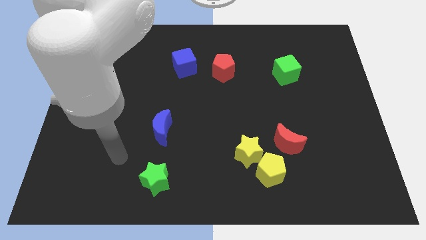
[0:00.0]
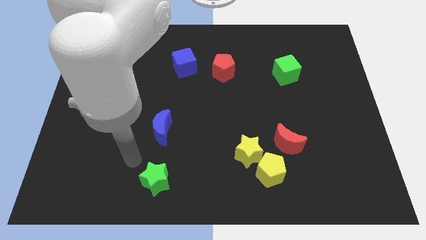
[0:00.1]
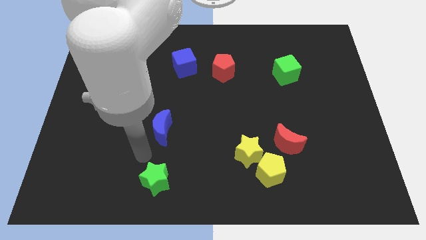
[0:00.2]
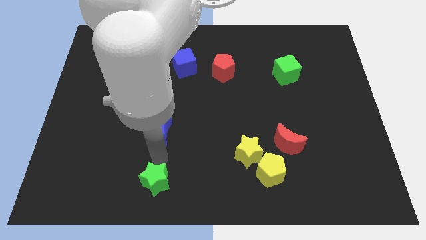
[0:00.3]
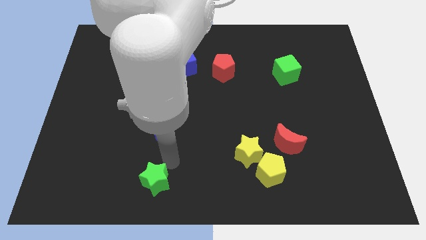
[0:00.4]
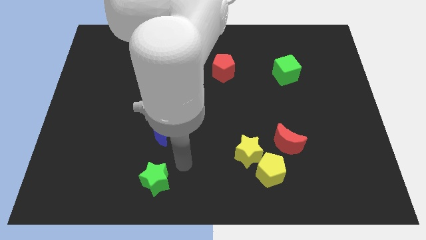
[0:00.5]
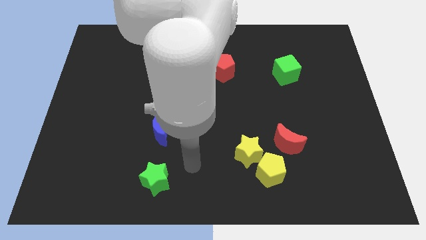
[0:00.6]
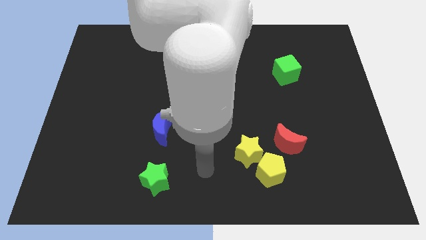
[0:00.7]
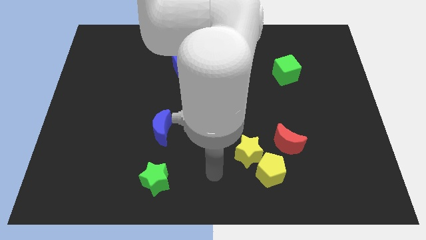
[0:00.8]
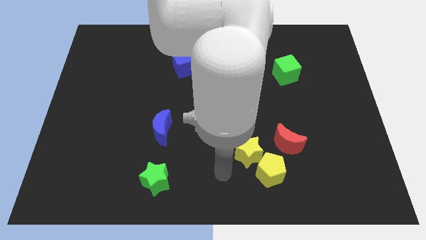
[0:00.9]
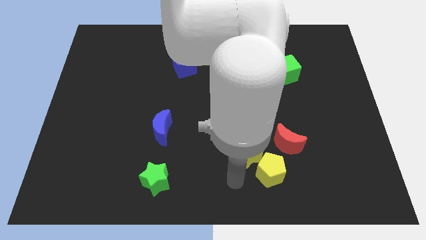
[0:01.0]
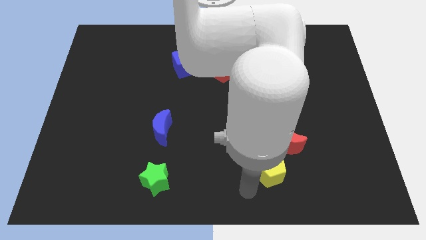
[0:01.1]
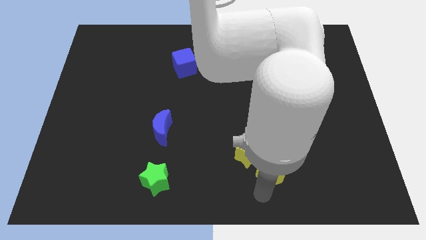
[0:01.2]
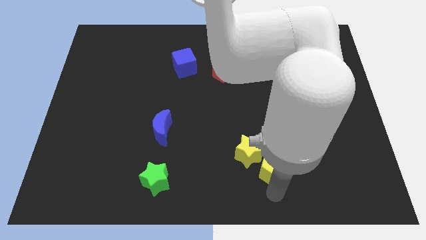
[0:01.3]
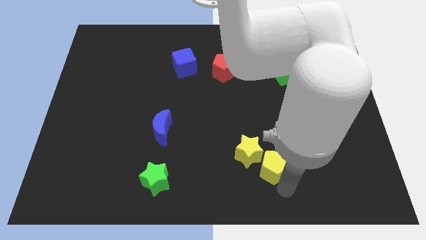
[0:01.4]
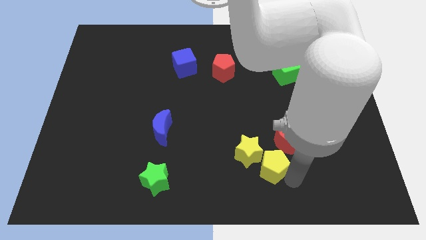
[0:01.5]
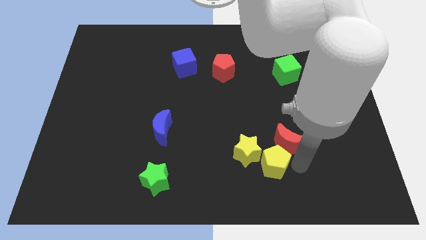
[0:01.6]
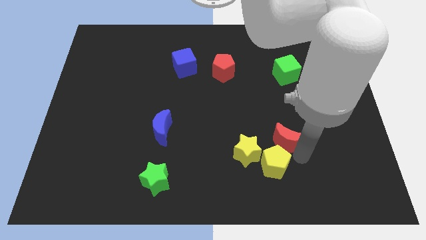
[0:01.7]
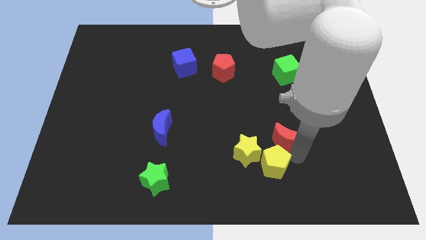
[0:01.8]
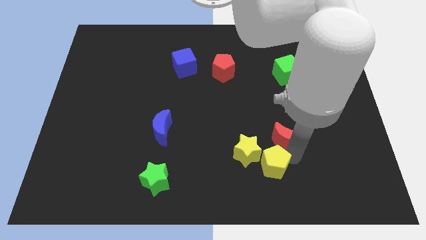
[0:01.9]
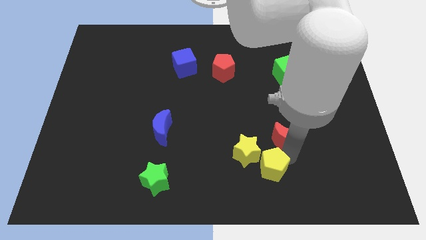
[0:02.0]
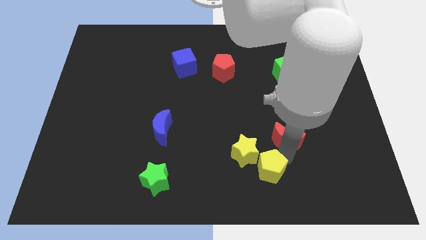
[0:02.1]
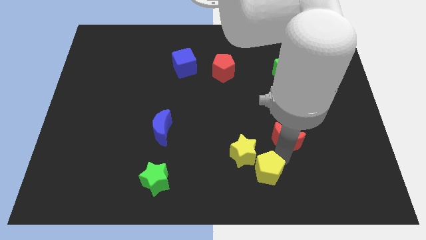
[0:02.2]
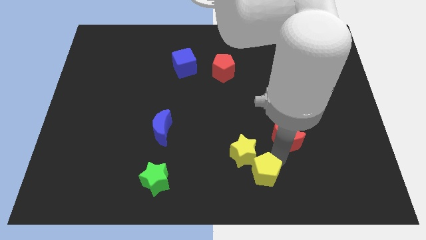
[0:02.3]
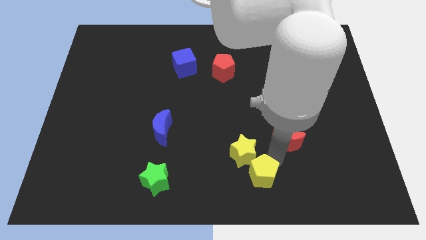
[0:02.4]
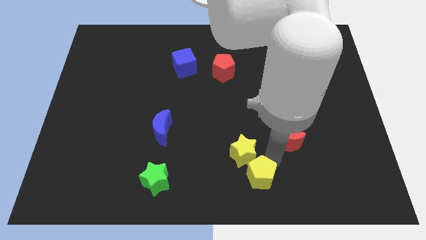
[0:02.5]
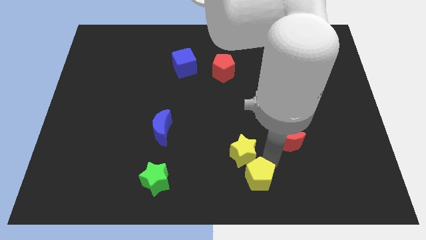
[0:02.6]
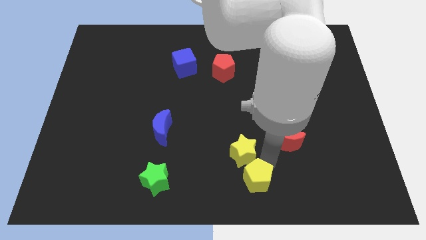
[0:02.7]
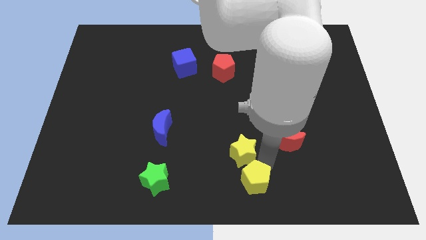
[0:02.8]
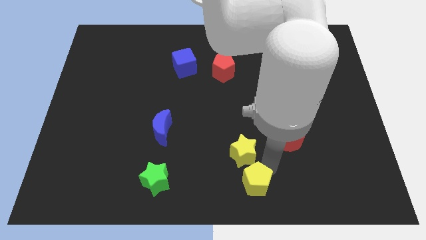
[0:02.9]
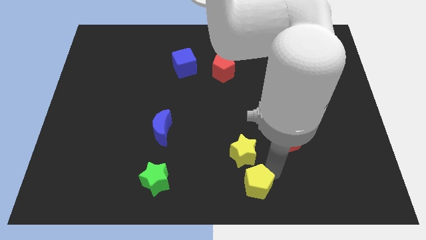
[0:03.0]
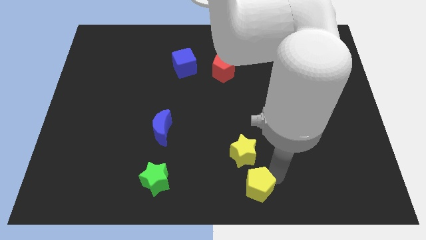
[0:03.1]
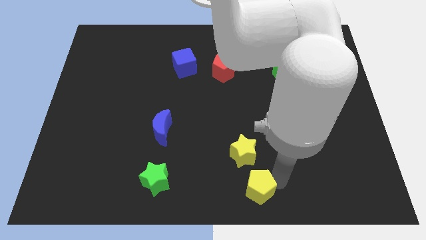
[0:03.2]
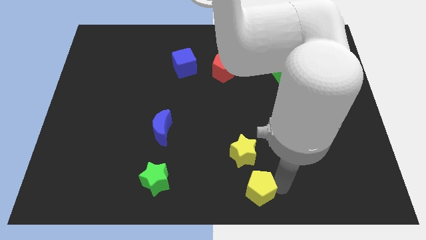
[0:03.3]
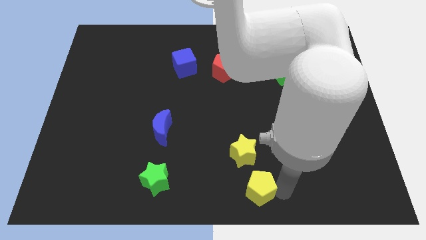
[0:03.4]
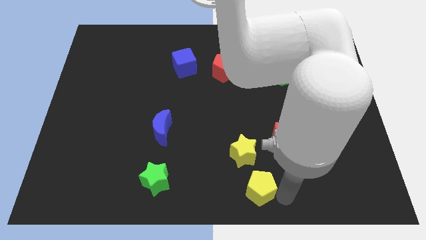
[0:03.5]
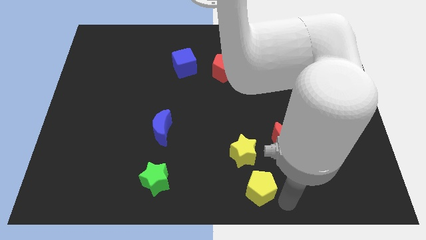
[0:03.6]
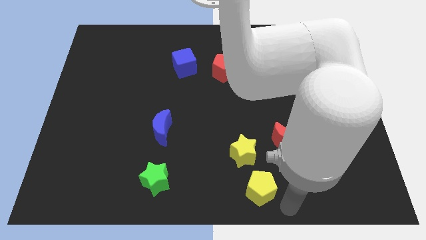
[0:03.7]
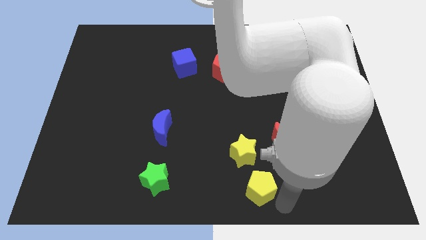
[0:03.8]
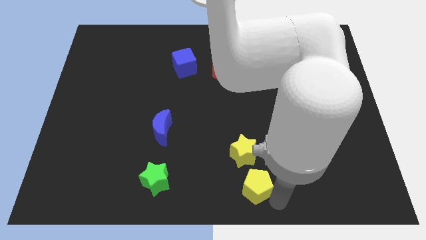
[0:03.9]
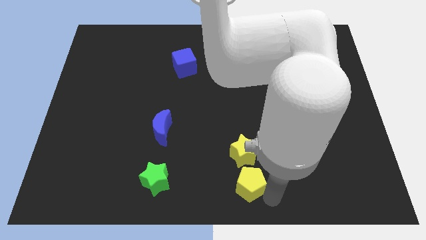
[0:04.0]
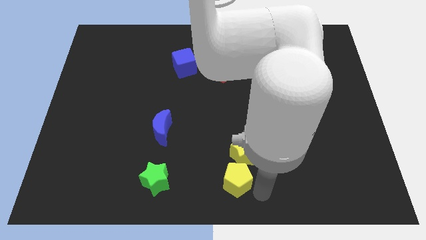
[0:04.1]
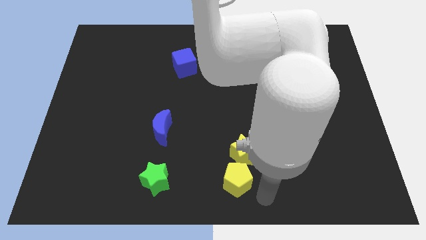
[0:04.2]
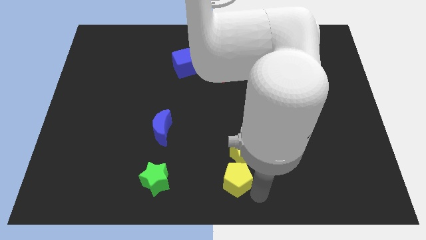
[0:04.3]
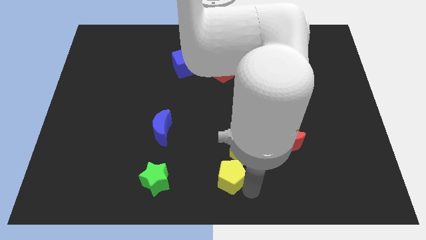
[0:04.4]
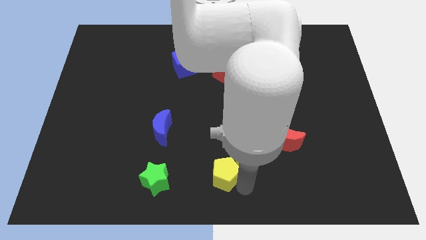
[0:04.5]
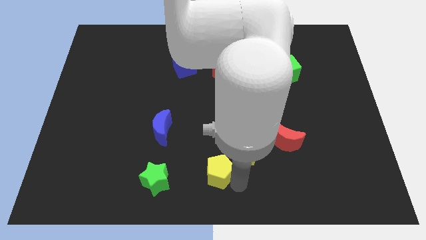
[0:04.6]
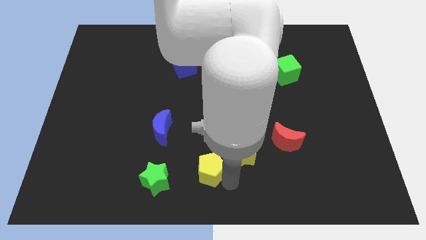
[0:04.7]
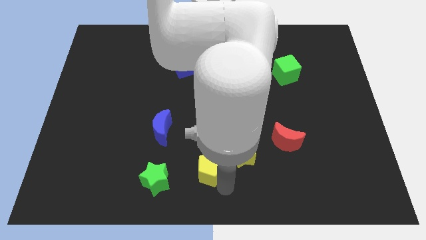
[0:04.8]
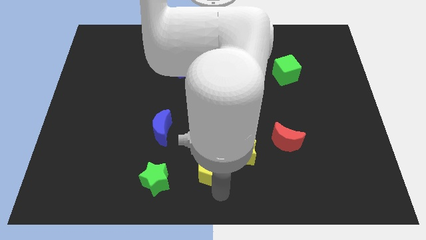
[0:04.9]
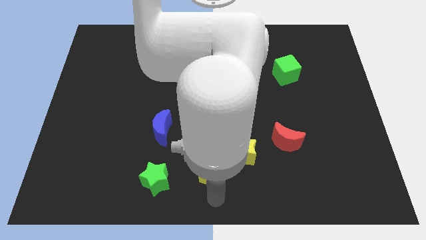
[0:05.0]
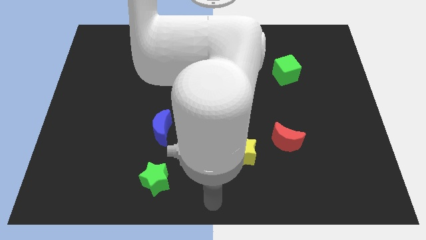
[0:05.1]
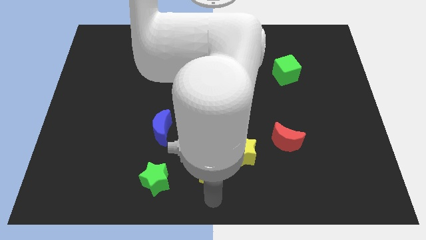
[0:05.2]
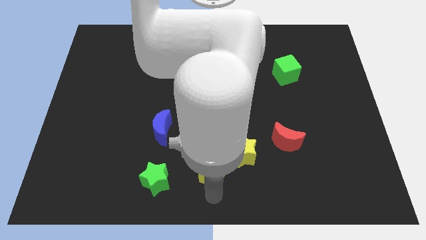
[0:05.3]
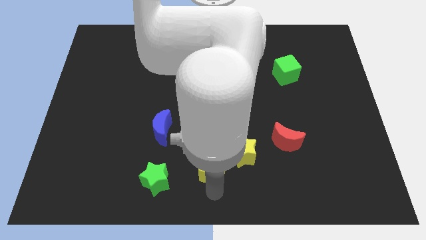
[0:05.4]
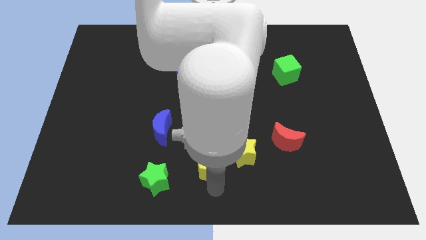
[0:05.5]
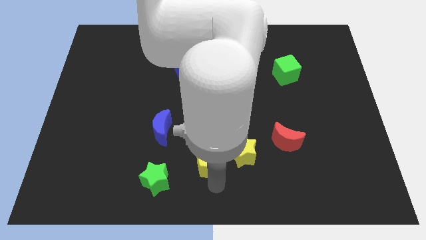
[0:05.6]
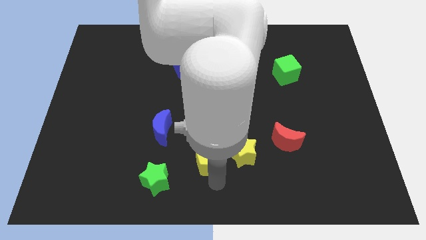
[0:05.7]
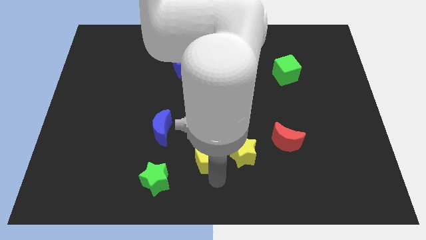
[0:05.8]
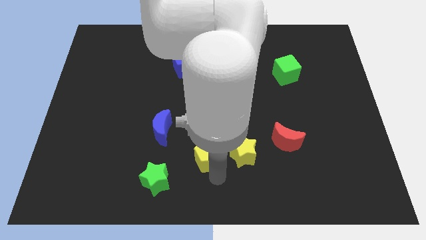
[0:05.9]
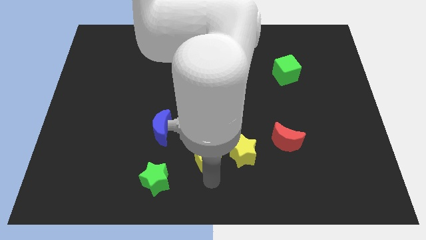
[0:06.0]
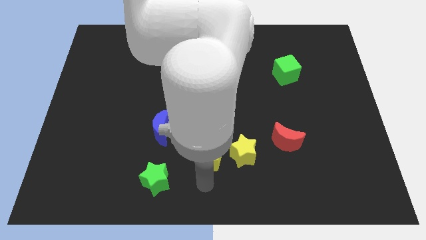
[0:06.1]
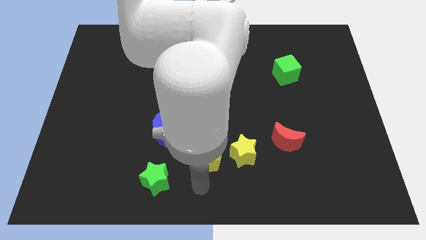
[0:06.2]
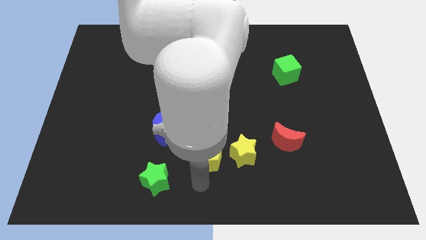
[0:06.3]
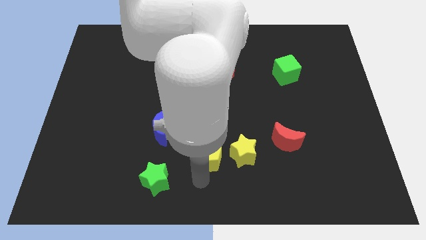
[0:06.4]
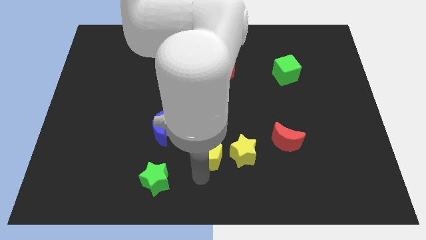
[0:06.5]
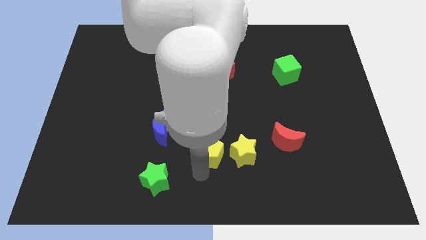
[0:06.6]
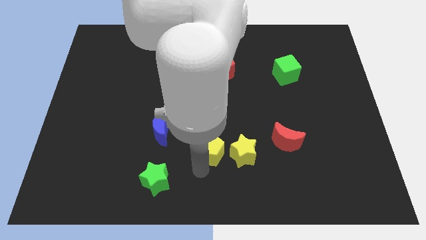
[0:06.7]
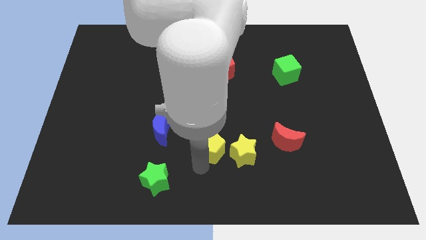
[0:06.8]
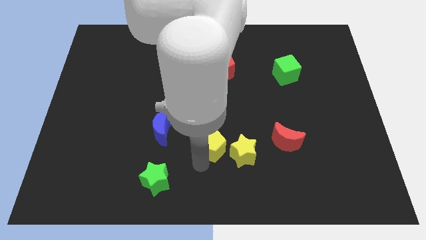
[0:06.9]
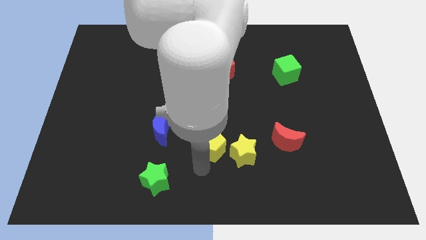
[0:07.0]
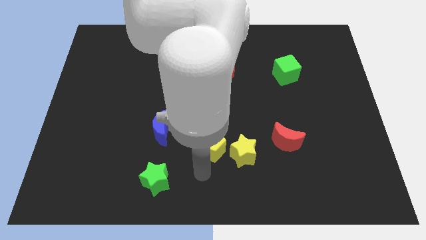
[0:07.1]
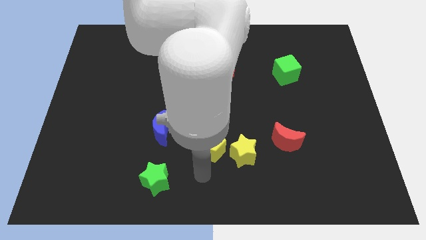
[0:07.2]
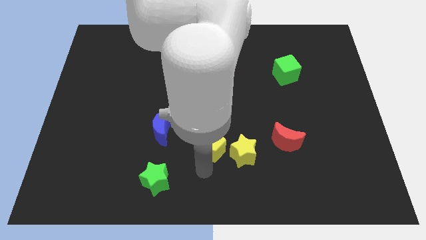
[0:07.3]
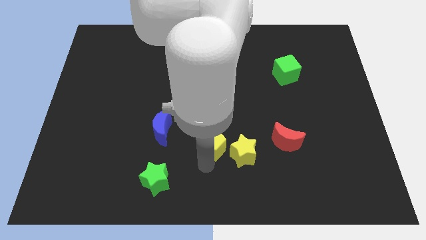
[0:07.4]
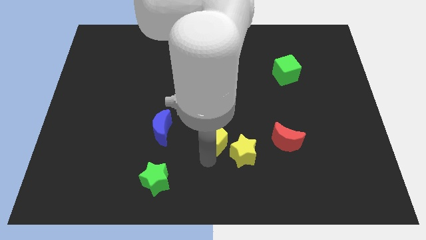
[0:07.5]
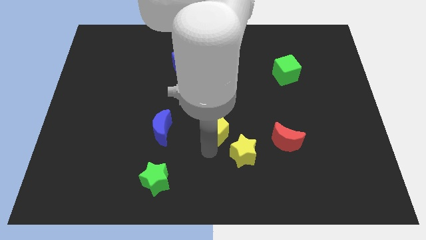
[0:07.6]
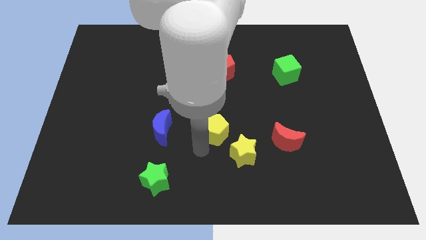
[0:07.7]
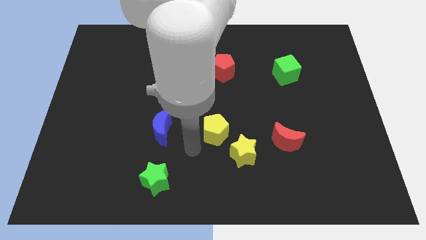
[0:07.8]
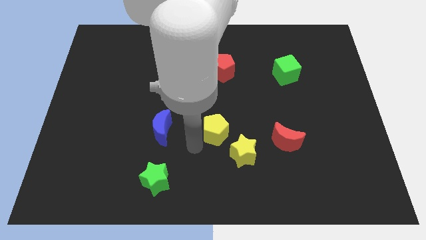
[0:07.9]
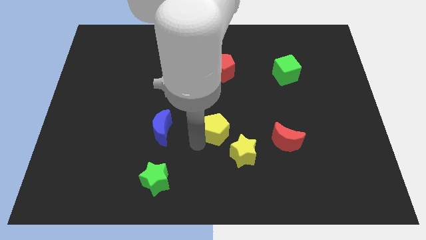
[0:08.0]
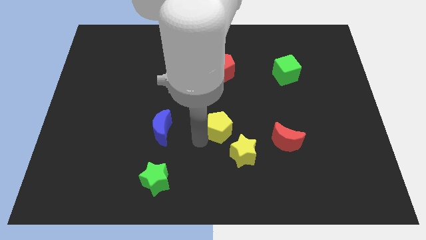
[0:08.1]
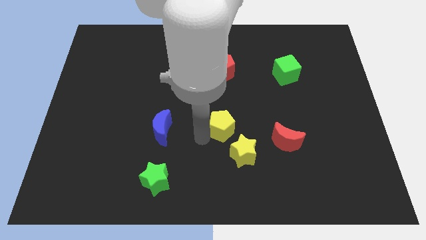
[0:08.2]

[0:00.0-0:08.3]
push the yellow pentagon to the top of the yellow star
